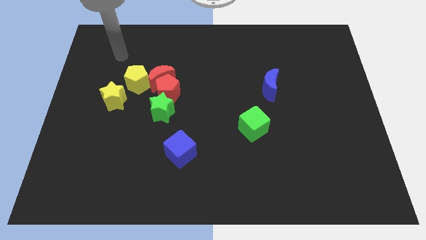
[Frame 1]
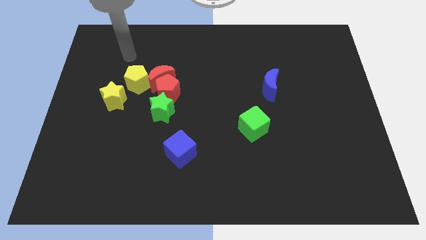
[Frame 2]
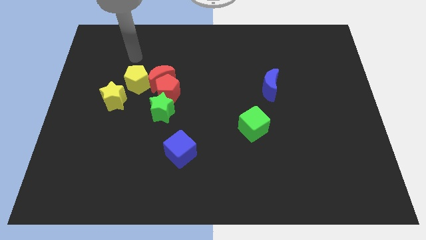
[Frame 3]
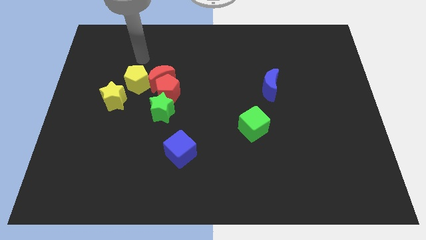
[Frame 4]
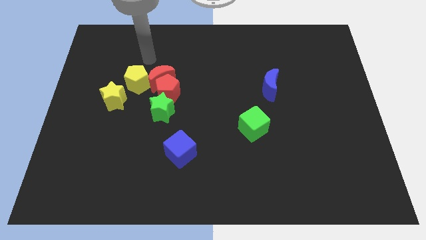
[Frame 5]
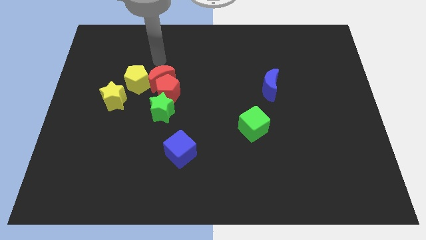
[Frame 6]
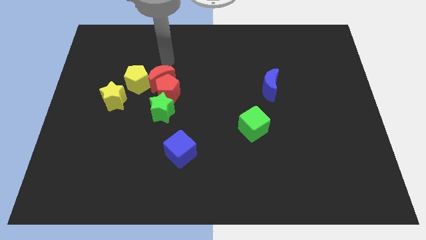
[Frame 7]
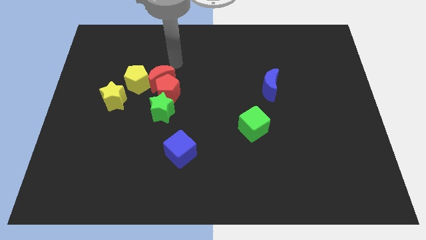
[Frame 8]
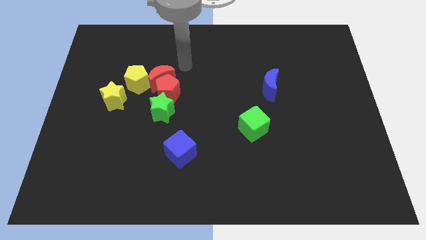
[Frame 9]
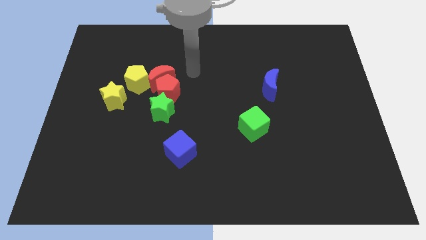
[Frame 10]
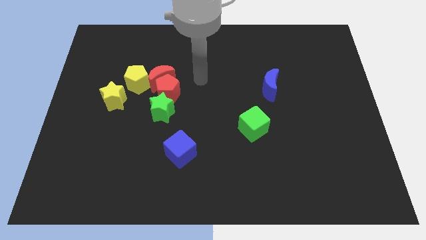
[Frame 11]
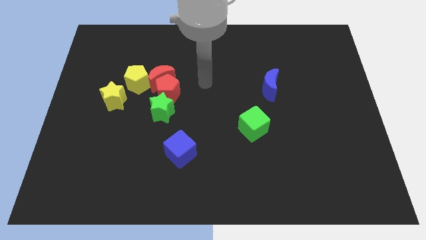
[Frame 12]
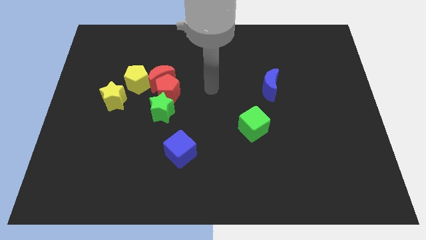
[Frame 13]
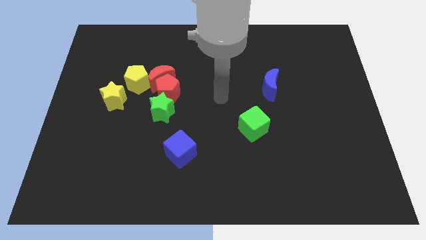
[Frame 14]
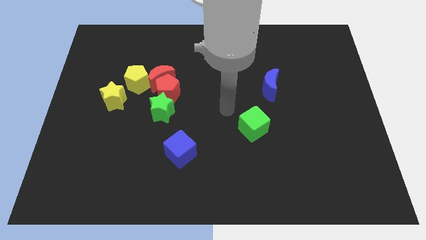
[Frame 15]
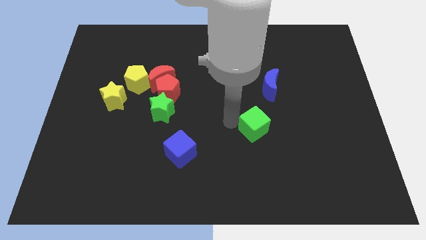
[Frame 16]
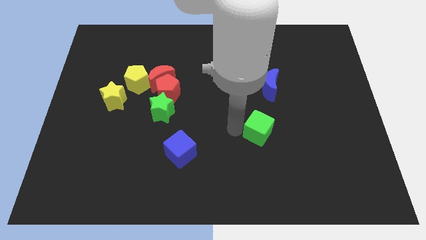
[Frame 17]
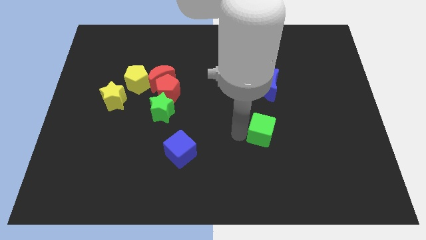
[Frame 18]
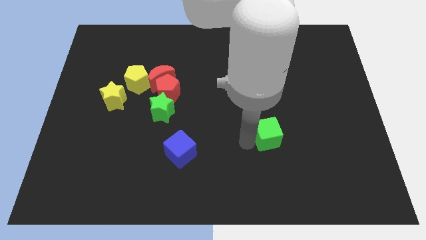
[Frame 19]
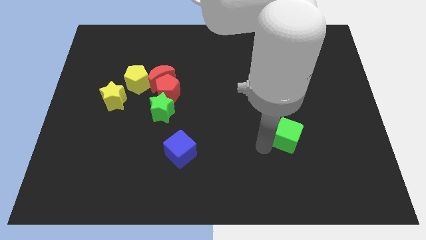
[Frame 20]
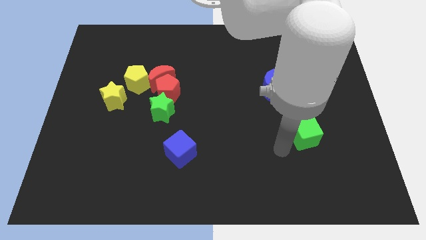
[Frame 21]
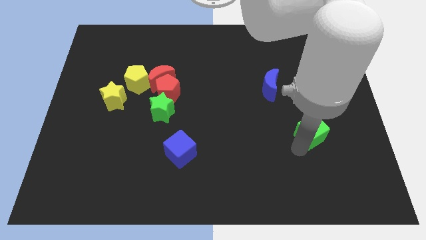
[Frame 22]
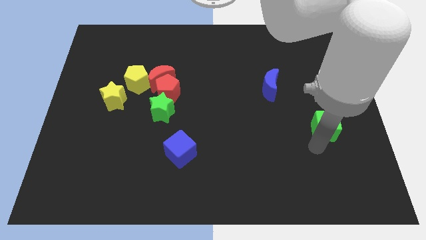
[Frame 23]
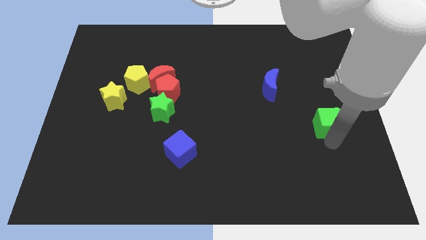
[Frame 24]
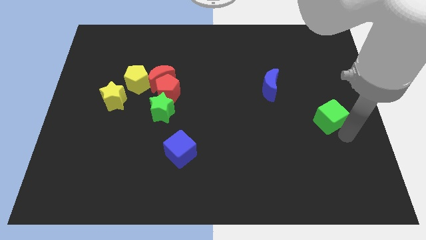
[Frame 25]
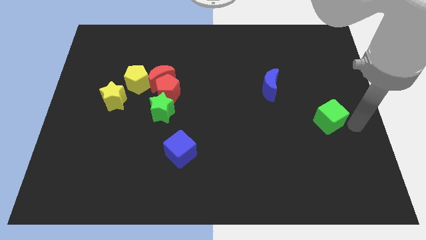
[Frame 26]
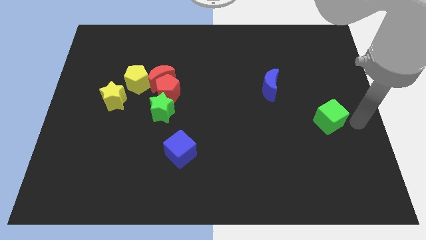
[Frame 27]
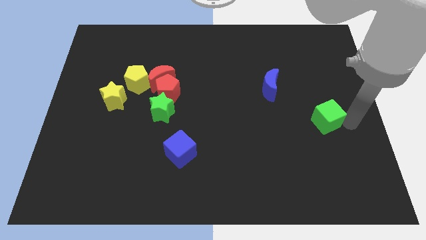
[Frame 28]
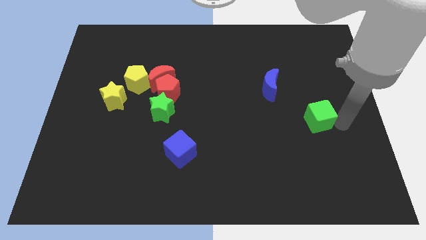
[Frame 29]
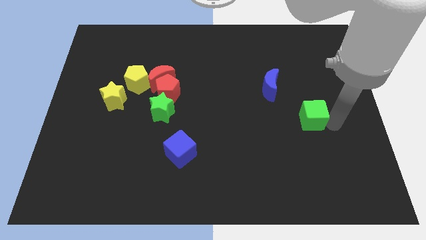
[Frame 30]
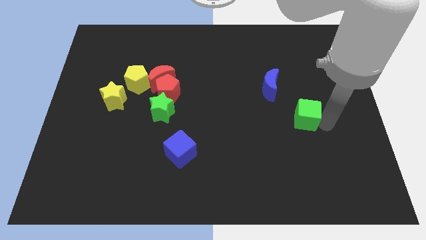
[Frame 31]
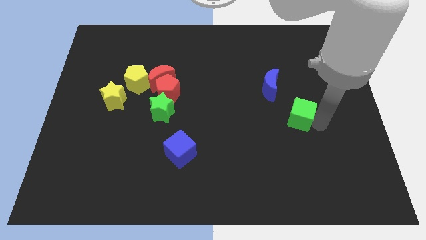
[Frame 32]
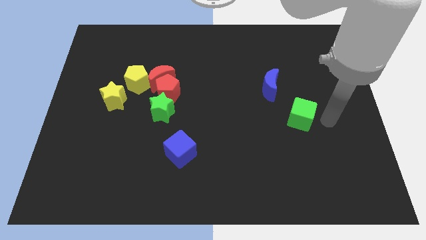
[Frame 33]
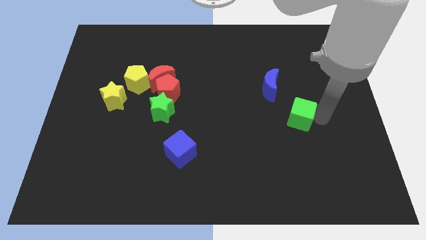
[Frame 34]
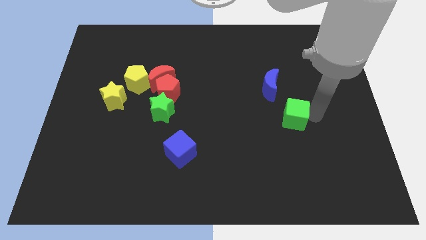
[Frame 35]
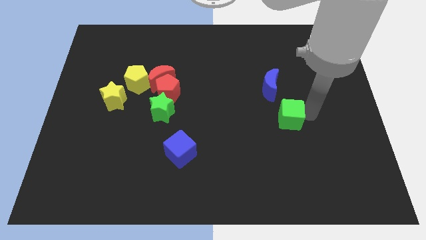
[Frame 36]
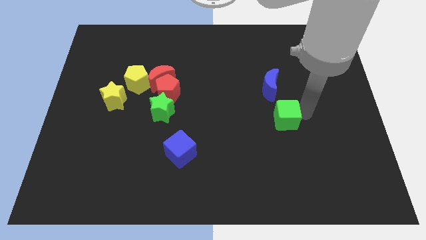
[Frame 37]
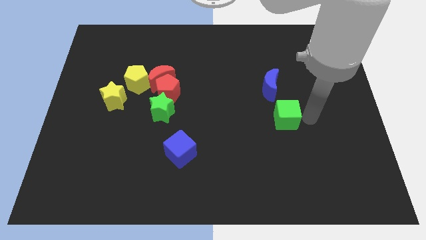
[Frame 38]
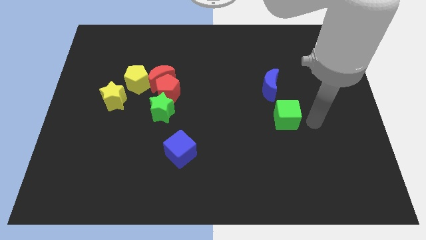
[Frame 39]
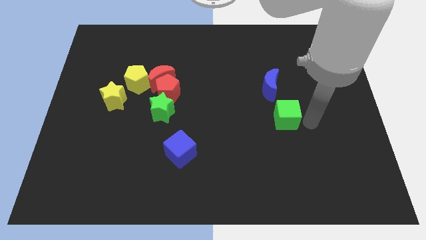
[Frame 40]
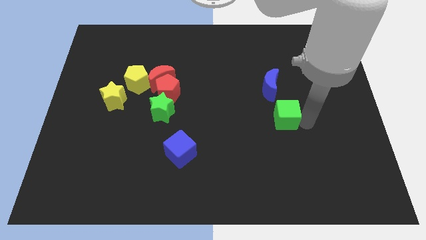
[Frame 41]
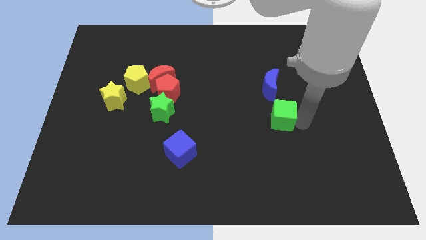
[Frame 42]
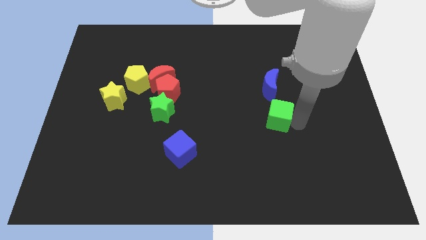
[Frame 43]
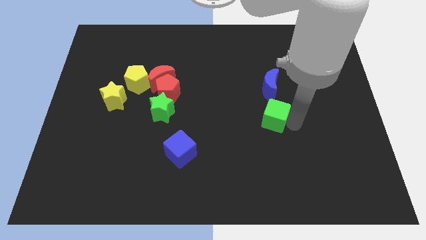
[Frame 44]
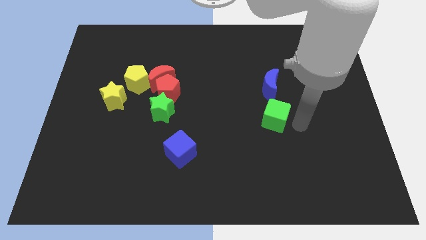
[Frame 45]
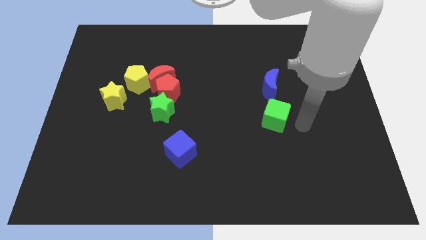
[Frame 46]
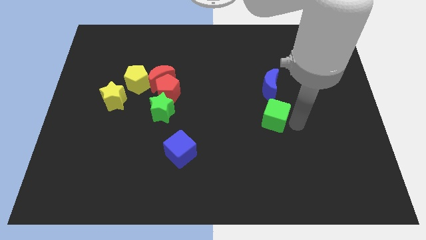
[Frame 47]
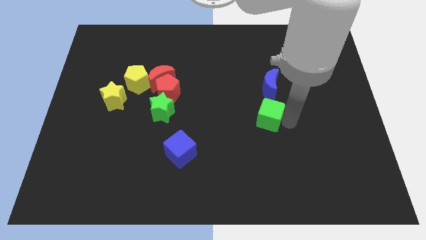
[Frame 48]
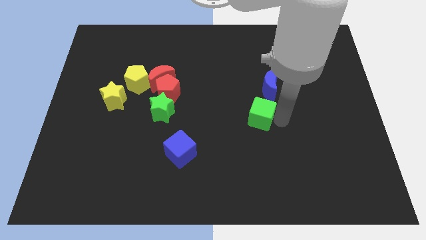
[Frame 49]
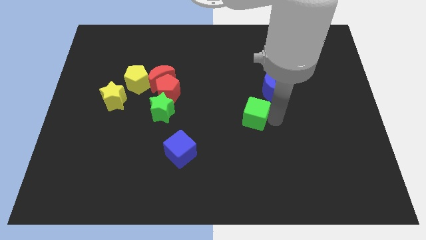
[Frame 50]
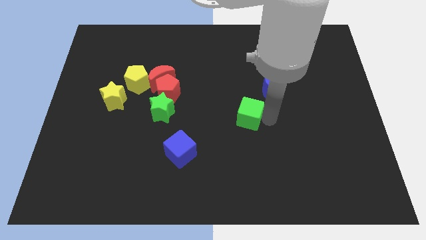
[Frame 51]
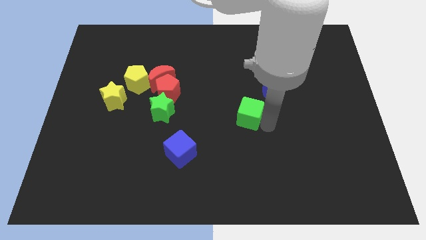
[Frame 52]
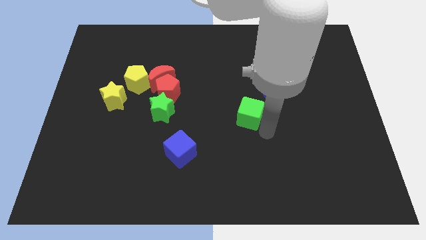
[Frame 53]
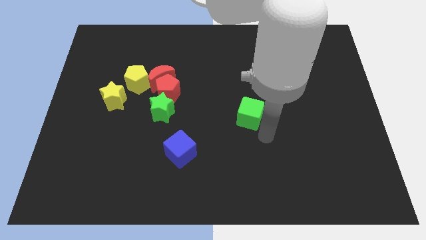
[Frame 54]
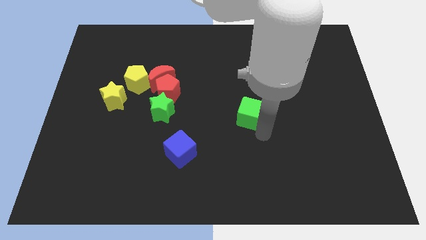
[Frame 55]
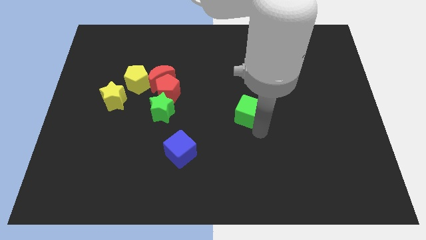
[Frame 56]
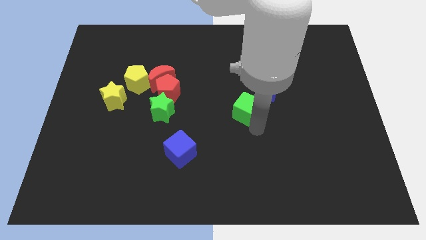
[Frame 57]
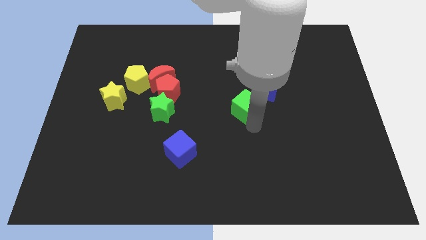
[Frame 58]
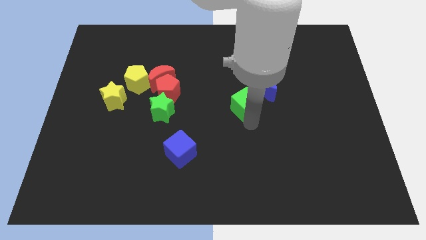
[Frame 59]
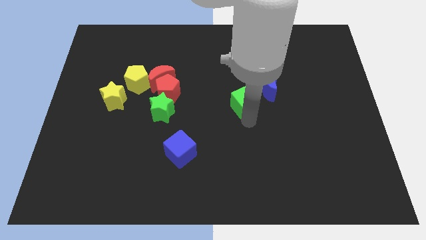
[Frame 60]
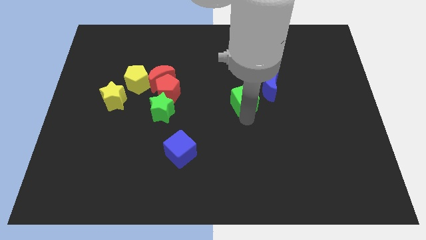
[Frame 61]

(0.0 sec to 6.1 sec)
slide the green cube to the left side of the blue moon

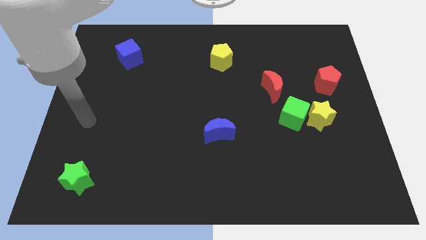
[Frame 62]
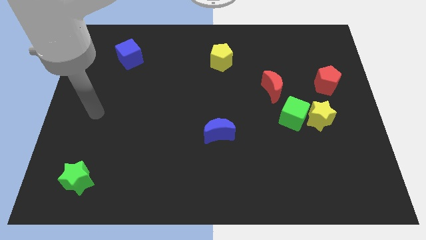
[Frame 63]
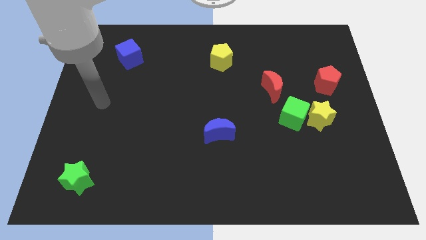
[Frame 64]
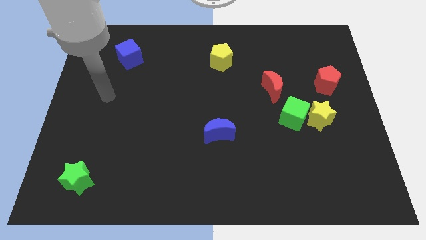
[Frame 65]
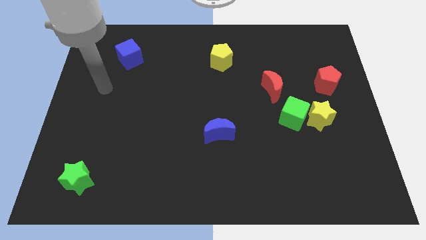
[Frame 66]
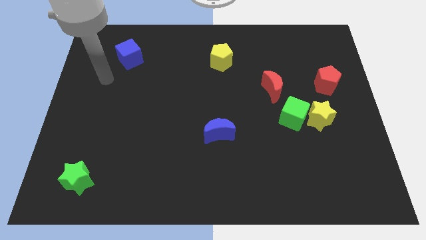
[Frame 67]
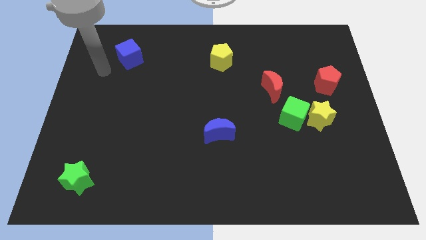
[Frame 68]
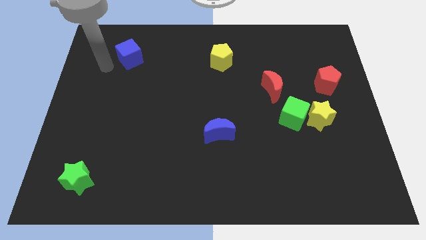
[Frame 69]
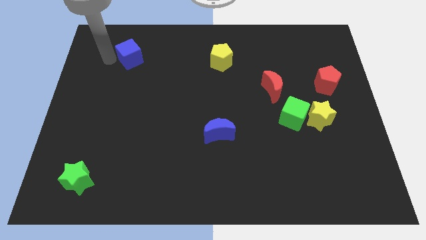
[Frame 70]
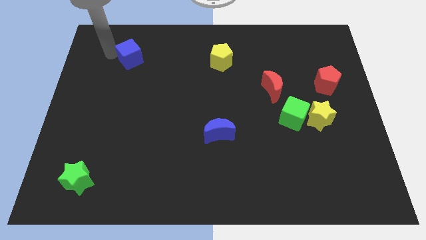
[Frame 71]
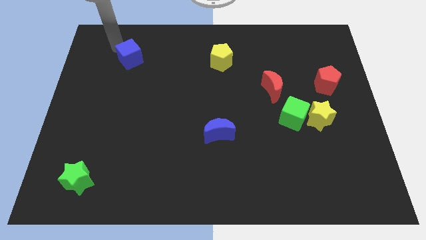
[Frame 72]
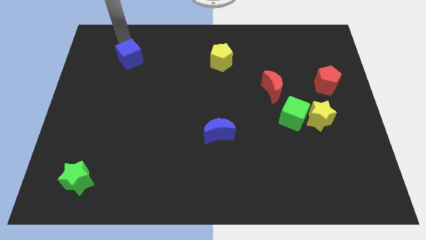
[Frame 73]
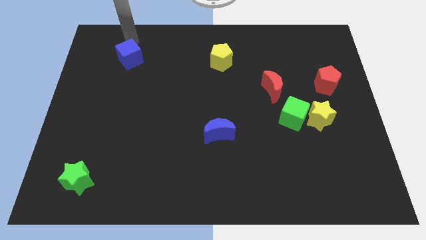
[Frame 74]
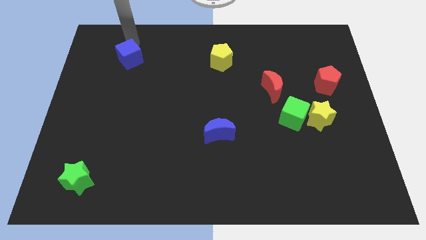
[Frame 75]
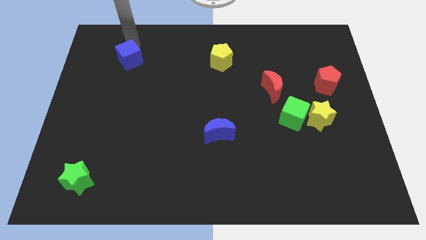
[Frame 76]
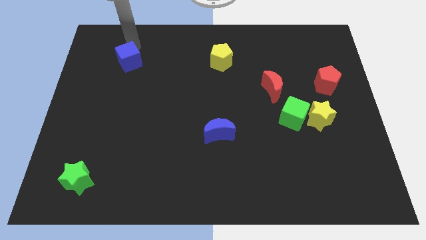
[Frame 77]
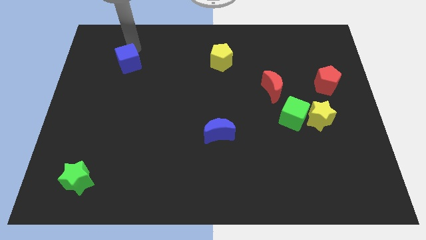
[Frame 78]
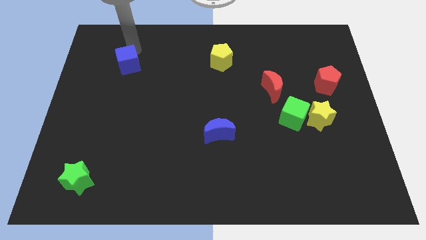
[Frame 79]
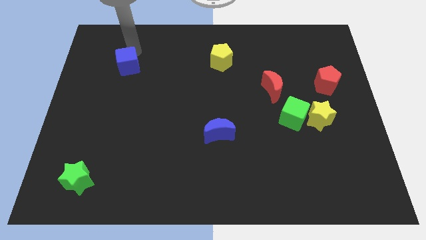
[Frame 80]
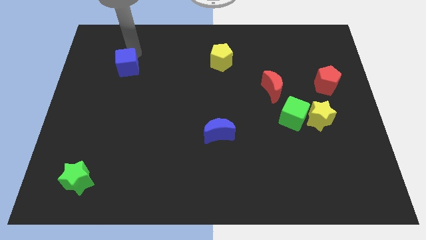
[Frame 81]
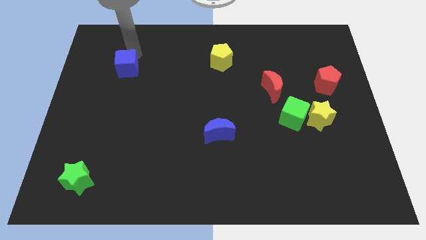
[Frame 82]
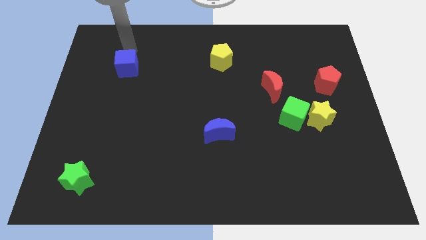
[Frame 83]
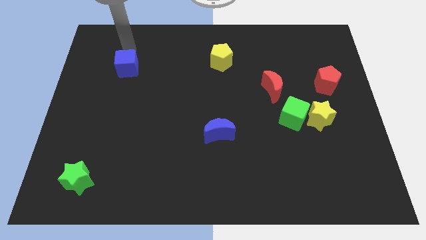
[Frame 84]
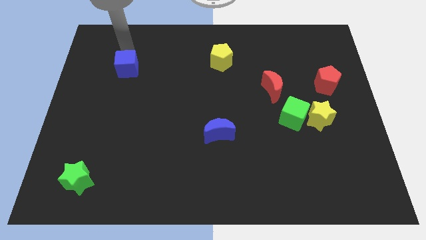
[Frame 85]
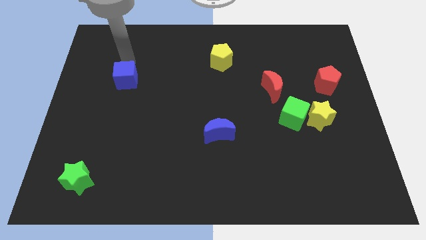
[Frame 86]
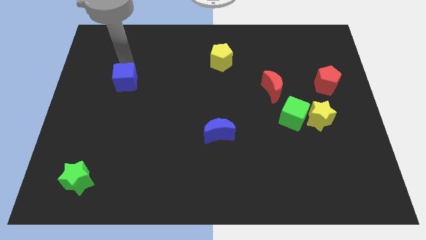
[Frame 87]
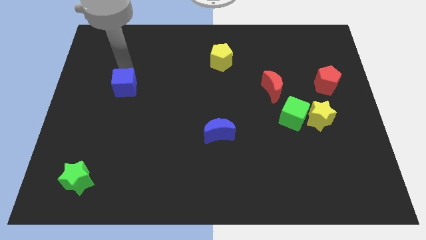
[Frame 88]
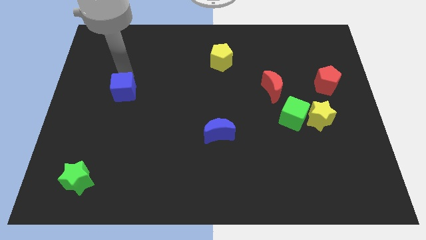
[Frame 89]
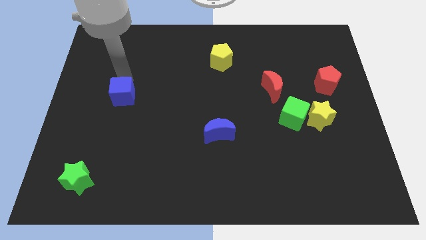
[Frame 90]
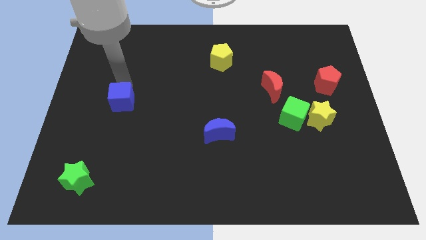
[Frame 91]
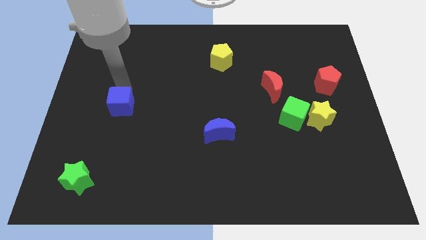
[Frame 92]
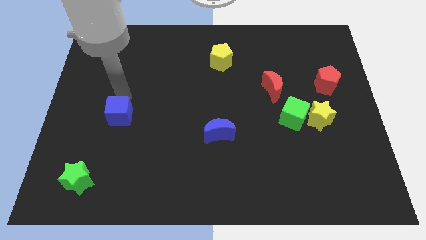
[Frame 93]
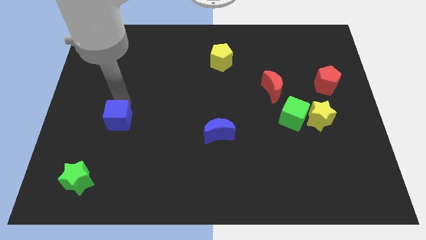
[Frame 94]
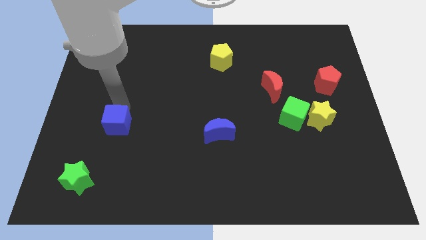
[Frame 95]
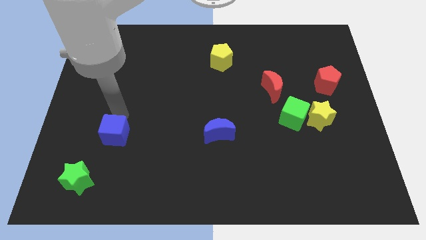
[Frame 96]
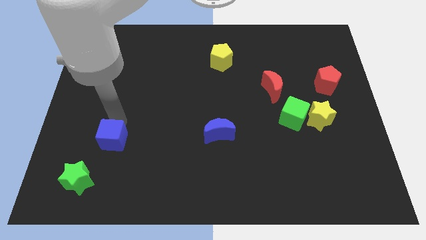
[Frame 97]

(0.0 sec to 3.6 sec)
move the blue cube to the top right of the green star
